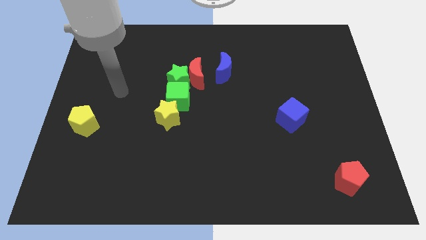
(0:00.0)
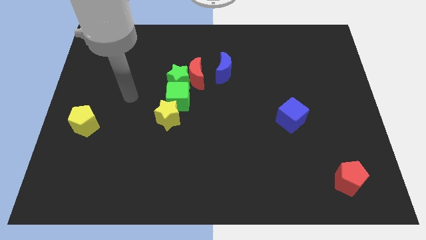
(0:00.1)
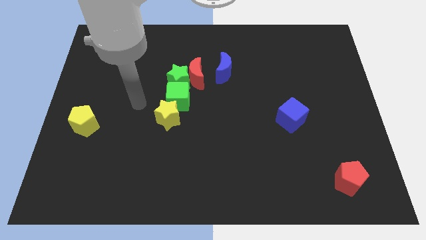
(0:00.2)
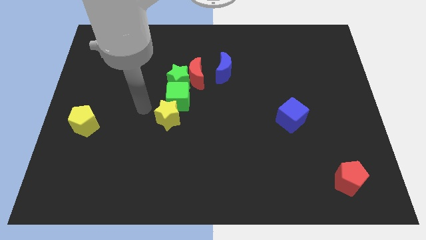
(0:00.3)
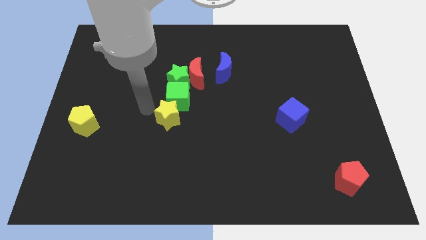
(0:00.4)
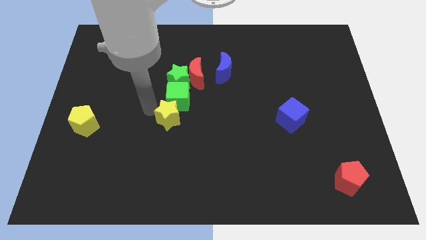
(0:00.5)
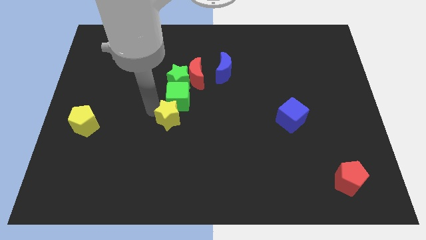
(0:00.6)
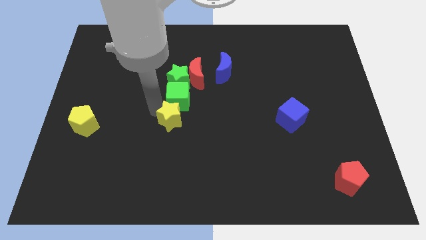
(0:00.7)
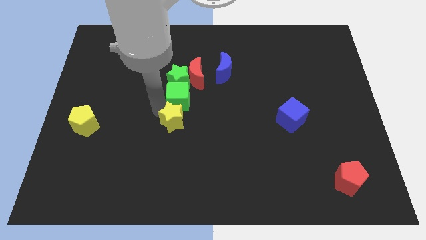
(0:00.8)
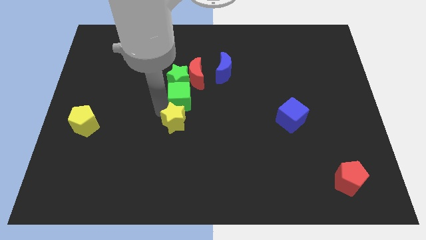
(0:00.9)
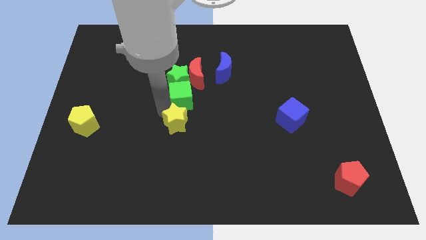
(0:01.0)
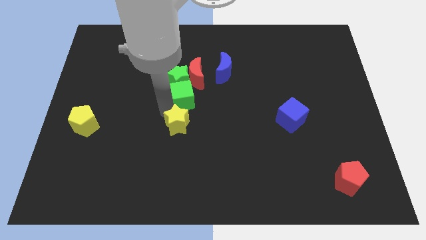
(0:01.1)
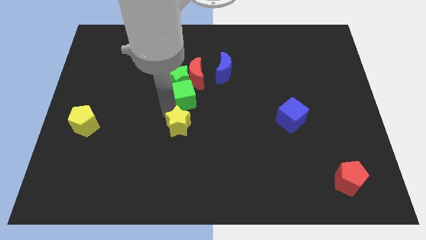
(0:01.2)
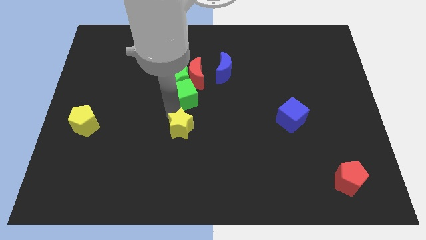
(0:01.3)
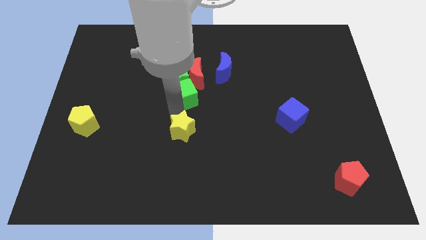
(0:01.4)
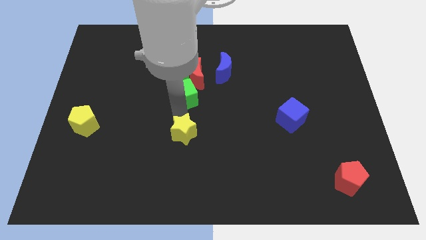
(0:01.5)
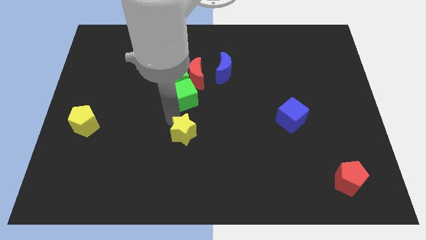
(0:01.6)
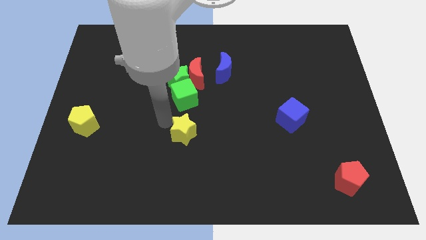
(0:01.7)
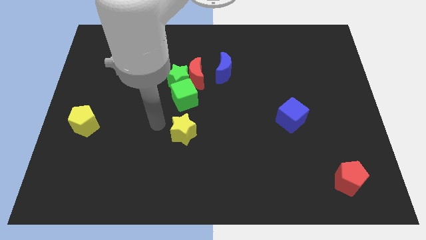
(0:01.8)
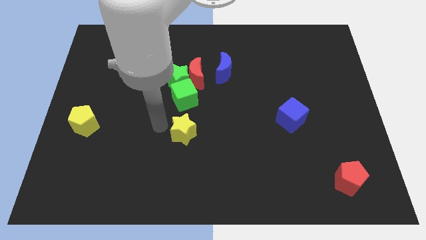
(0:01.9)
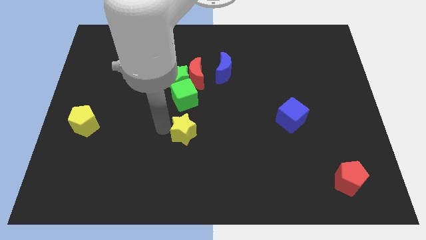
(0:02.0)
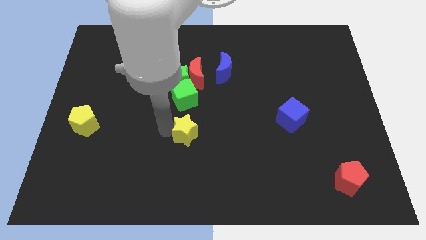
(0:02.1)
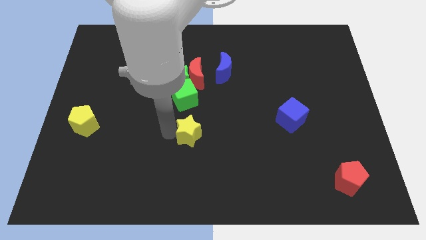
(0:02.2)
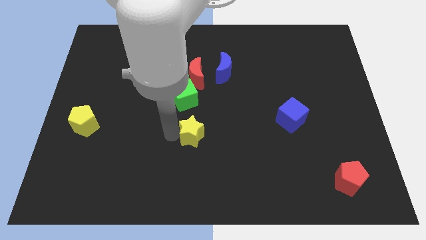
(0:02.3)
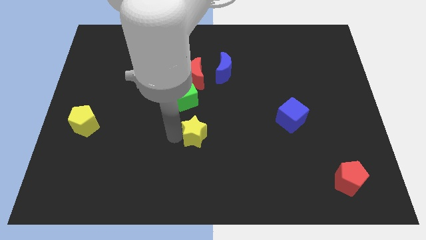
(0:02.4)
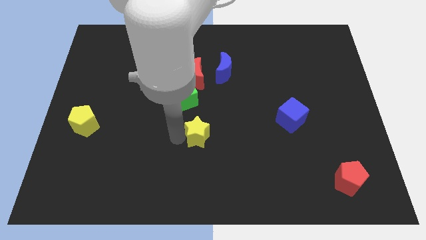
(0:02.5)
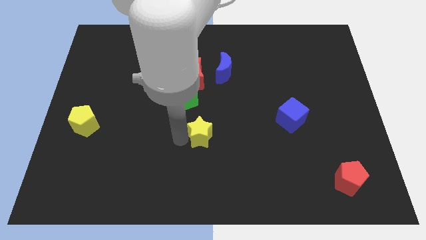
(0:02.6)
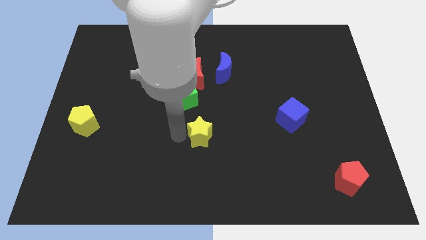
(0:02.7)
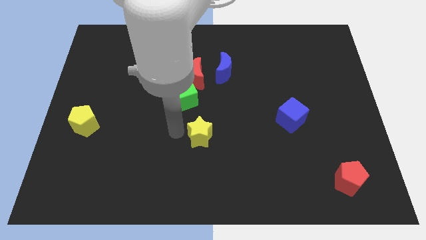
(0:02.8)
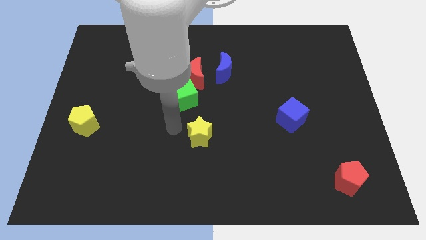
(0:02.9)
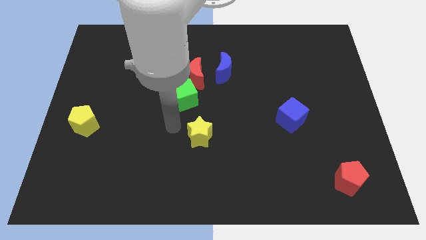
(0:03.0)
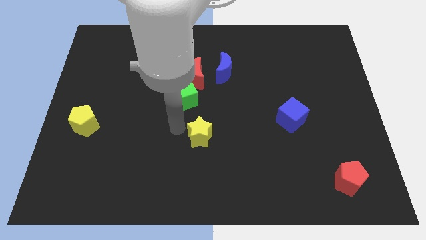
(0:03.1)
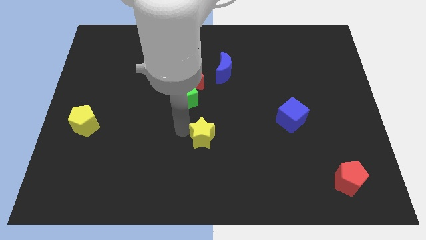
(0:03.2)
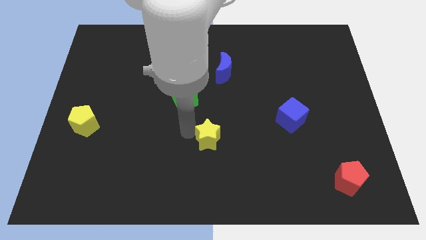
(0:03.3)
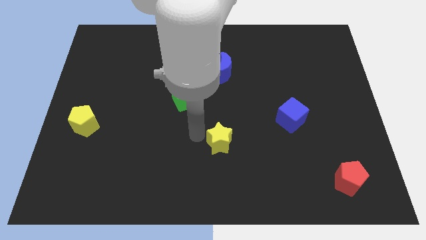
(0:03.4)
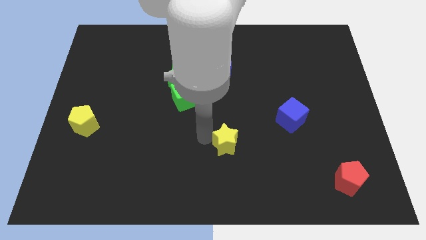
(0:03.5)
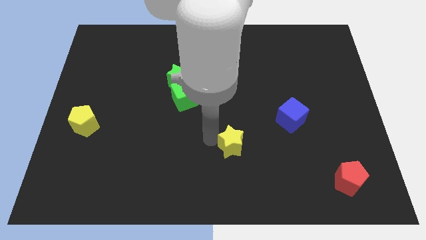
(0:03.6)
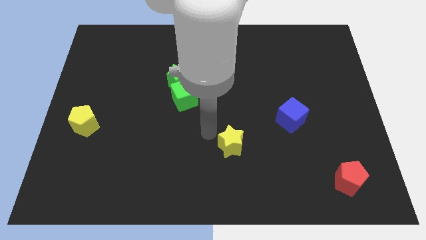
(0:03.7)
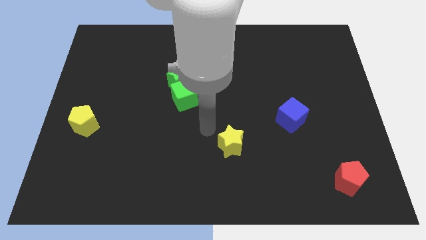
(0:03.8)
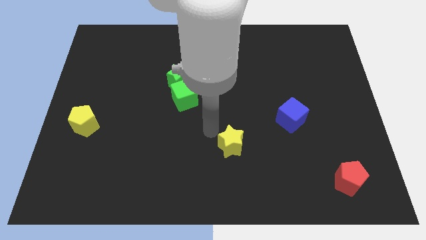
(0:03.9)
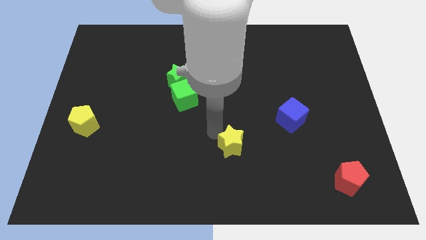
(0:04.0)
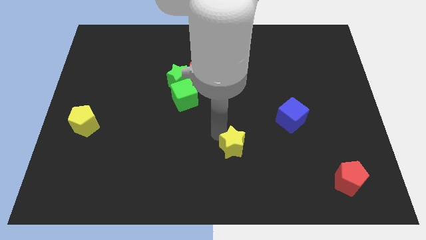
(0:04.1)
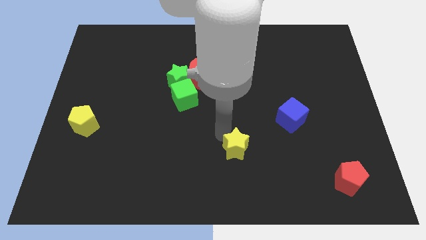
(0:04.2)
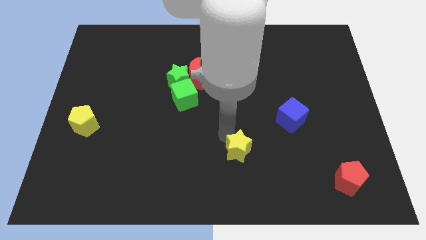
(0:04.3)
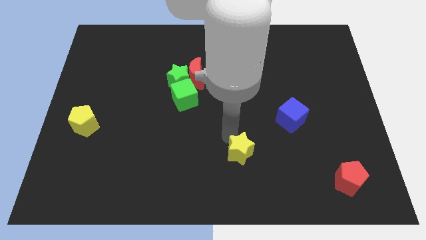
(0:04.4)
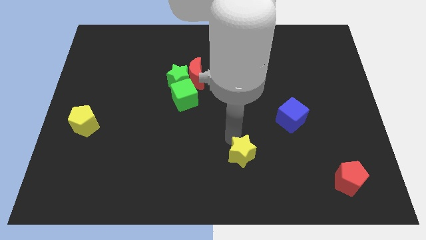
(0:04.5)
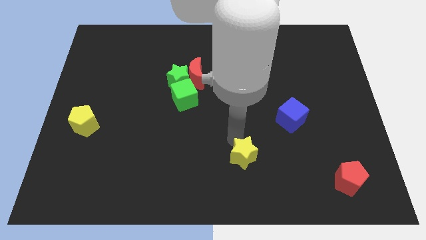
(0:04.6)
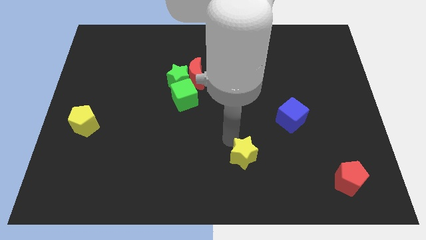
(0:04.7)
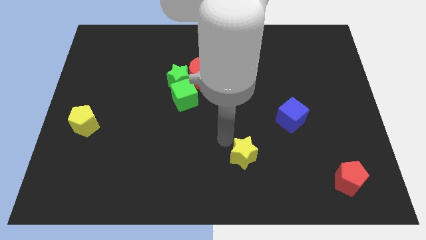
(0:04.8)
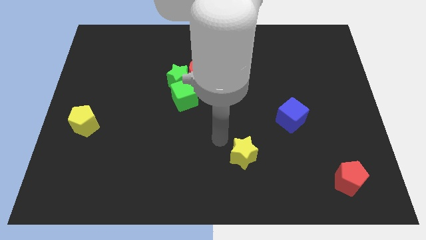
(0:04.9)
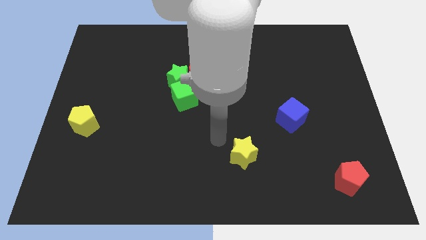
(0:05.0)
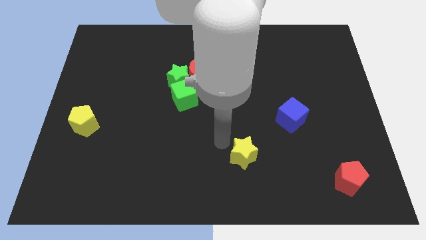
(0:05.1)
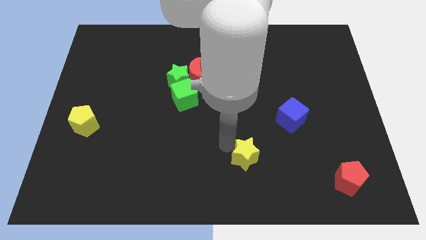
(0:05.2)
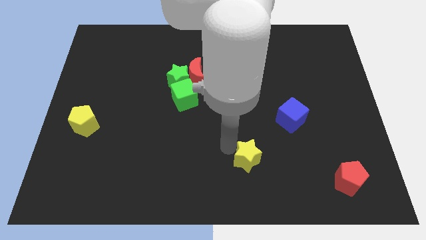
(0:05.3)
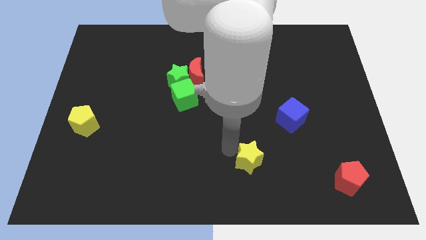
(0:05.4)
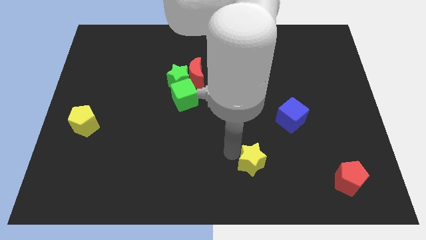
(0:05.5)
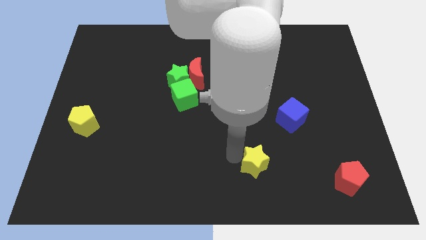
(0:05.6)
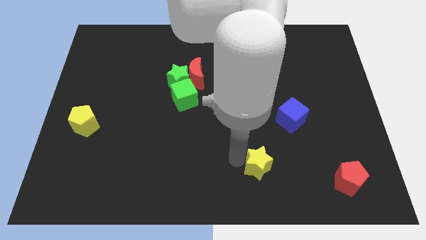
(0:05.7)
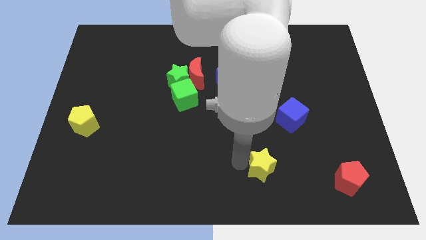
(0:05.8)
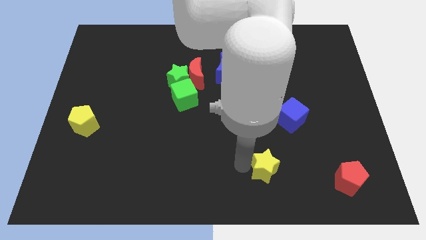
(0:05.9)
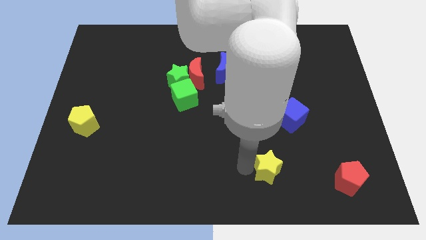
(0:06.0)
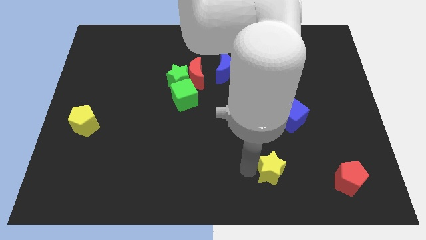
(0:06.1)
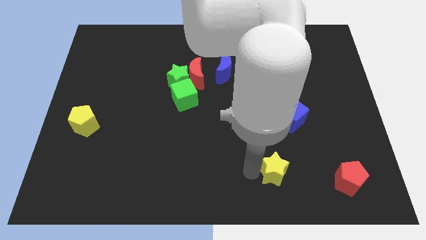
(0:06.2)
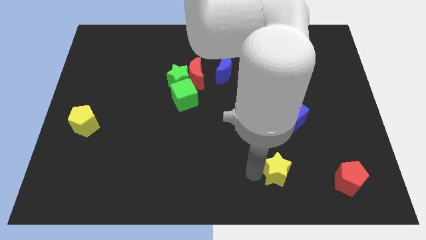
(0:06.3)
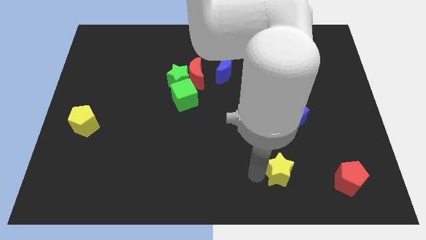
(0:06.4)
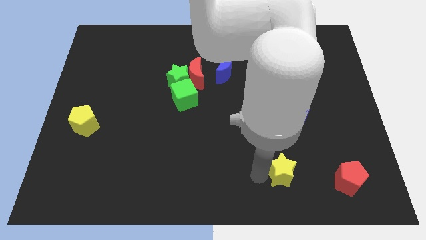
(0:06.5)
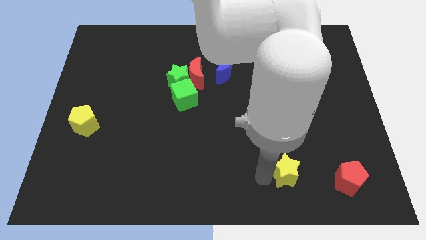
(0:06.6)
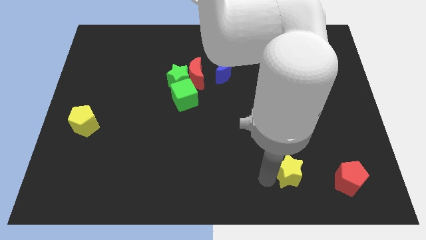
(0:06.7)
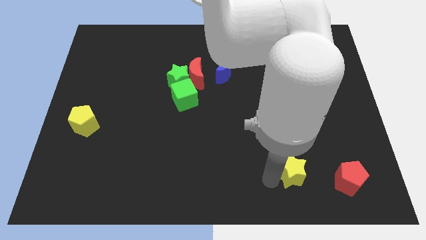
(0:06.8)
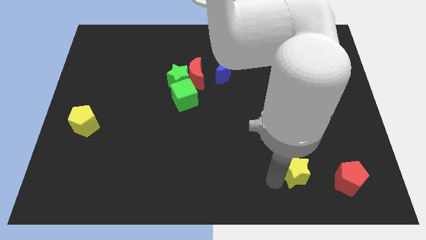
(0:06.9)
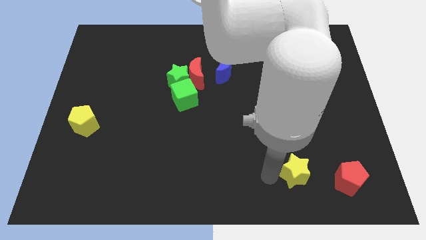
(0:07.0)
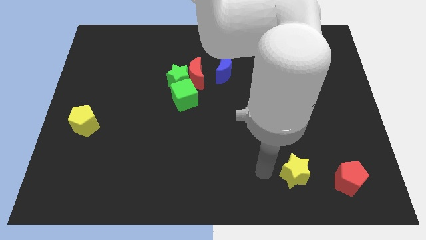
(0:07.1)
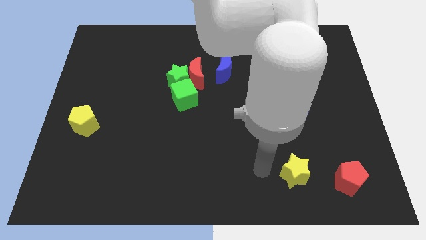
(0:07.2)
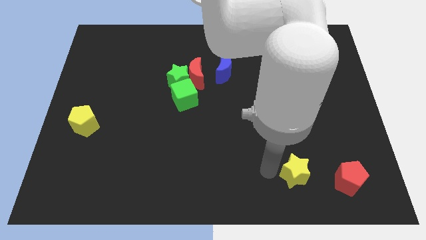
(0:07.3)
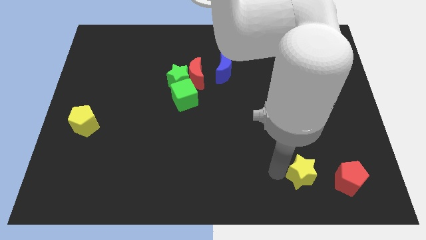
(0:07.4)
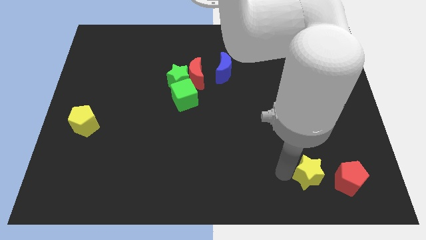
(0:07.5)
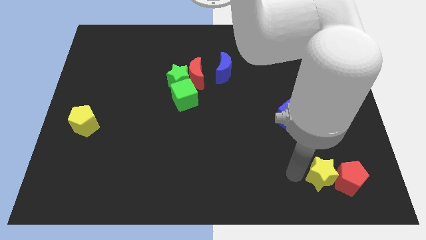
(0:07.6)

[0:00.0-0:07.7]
move the yellow star close to the red pentagon
